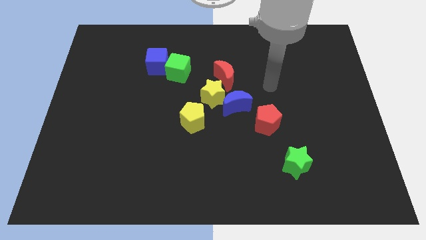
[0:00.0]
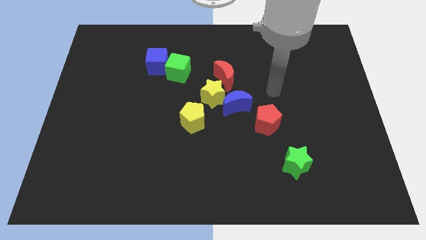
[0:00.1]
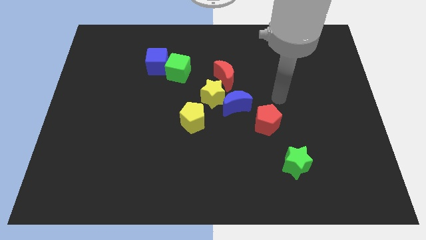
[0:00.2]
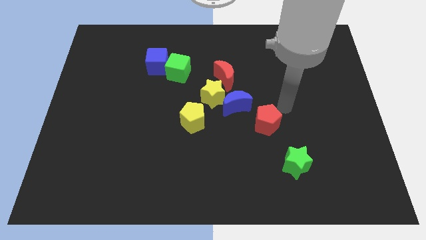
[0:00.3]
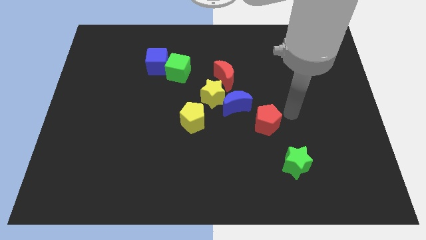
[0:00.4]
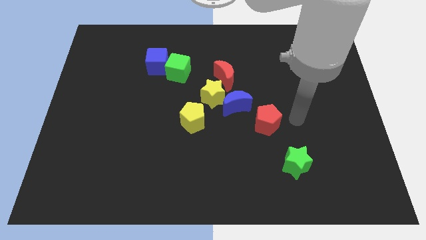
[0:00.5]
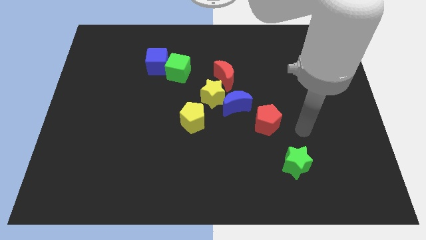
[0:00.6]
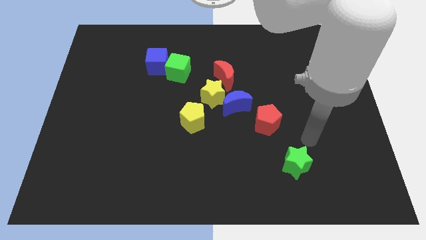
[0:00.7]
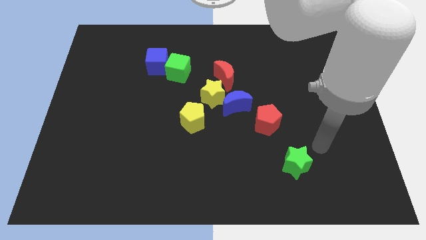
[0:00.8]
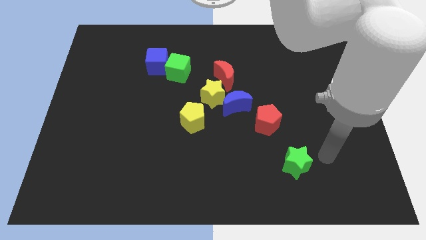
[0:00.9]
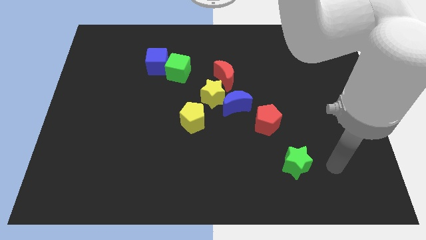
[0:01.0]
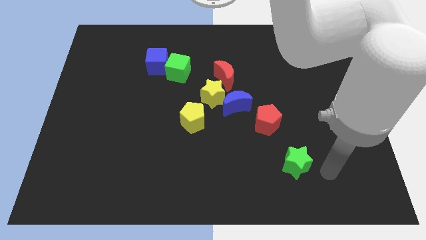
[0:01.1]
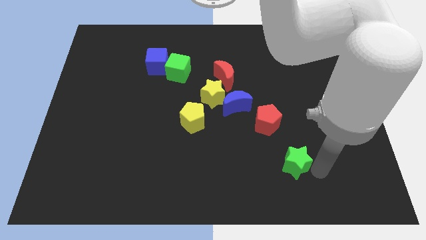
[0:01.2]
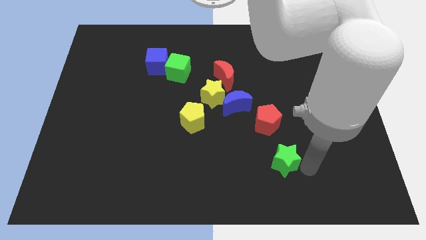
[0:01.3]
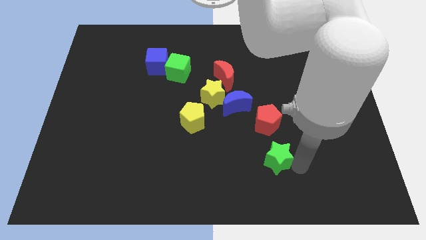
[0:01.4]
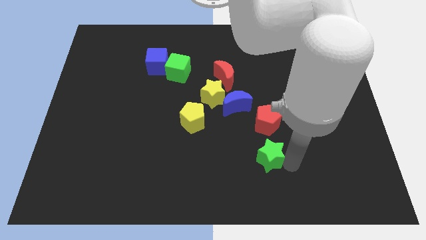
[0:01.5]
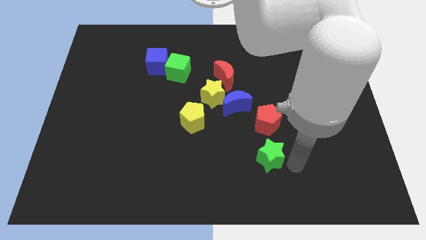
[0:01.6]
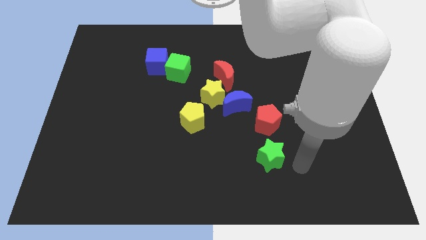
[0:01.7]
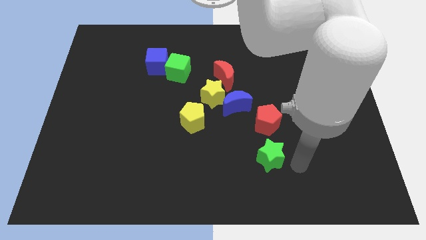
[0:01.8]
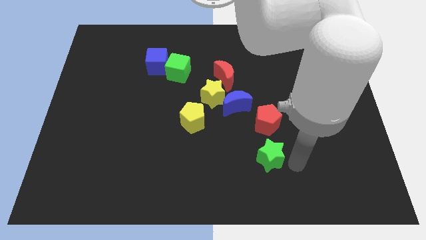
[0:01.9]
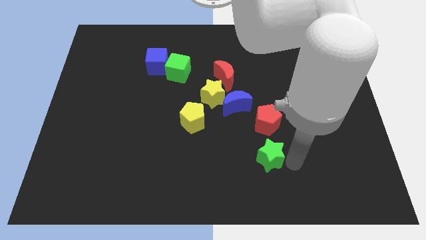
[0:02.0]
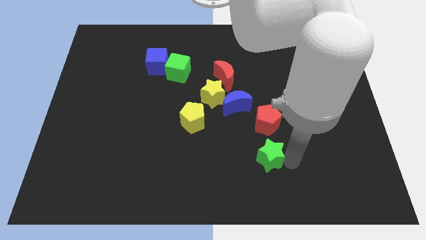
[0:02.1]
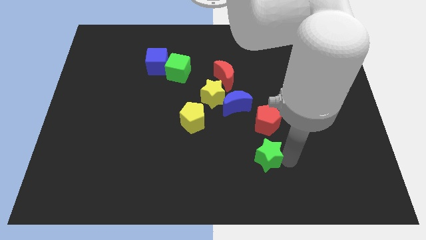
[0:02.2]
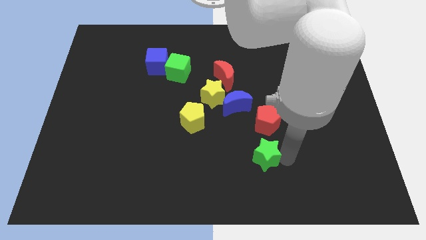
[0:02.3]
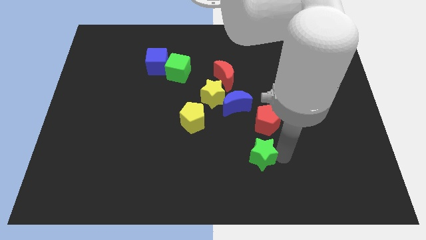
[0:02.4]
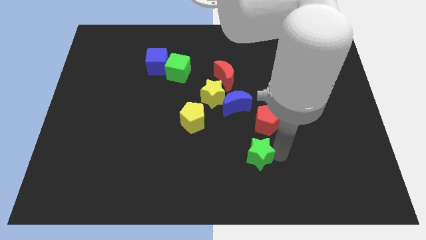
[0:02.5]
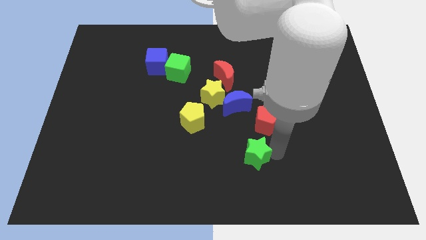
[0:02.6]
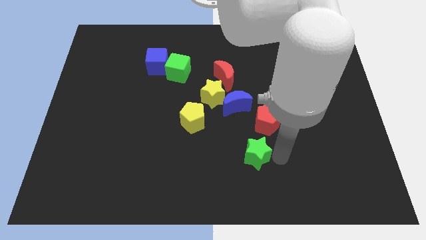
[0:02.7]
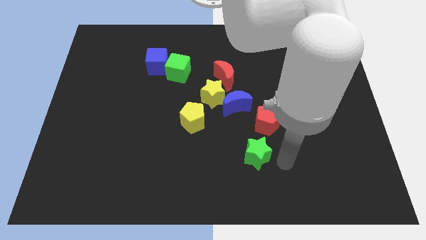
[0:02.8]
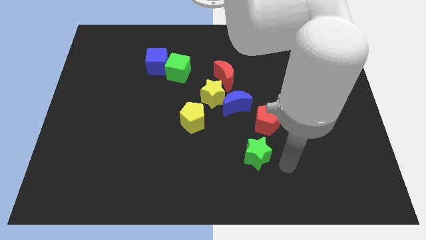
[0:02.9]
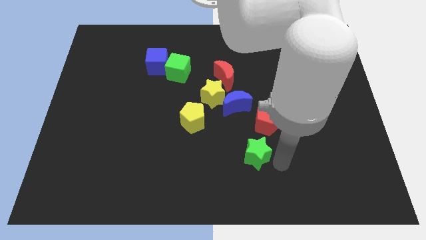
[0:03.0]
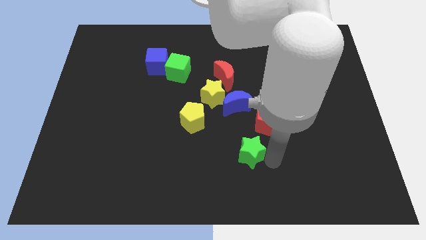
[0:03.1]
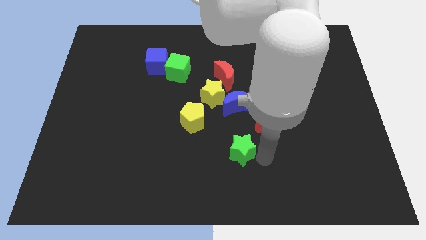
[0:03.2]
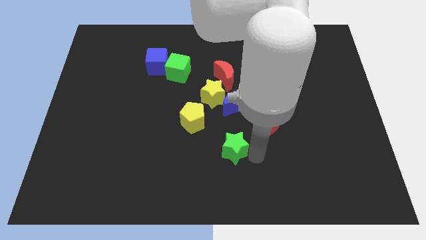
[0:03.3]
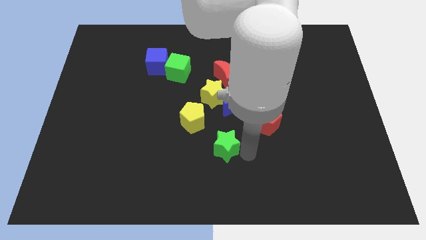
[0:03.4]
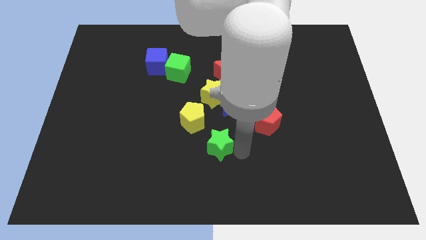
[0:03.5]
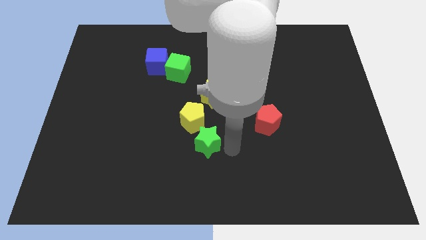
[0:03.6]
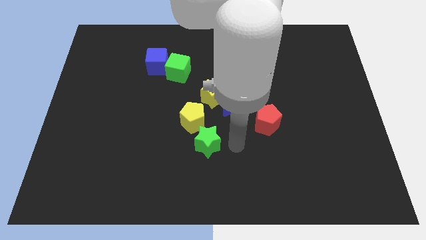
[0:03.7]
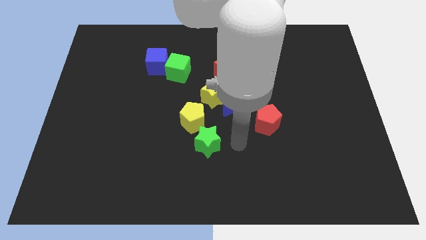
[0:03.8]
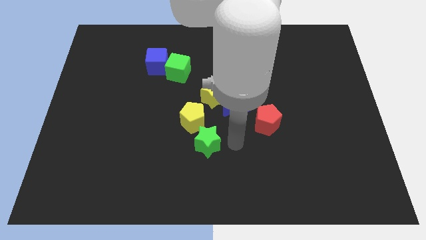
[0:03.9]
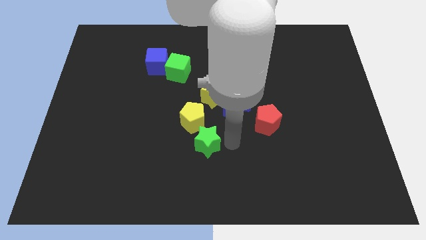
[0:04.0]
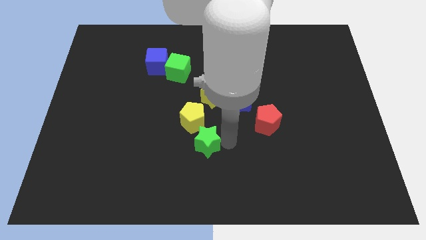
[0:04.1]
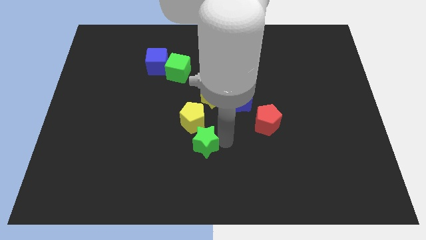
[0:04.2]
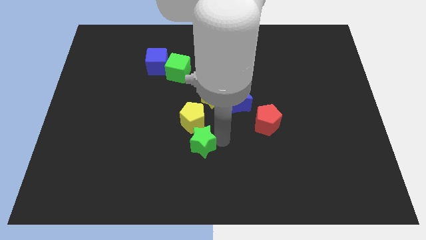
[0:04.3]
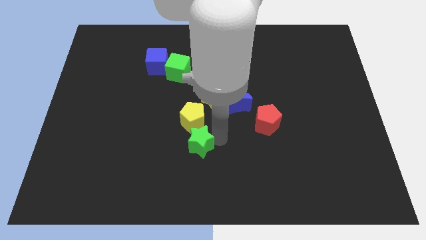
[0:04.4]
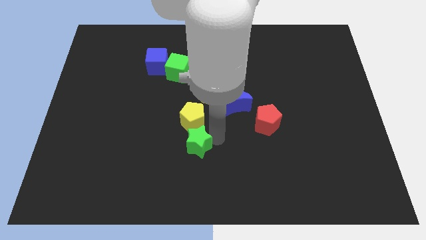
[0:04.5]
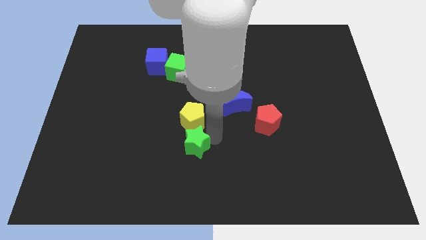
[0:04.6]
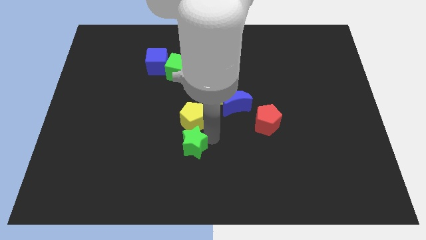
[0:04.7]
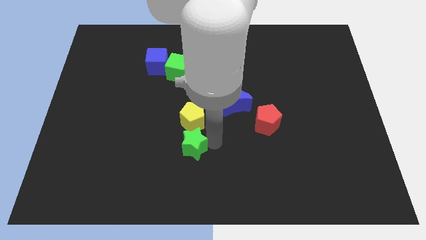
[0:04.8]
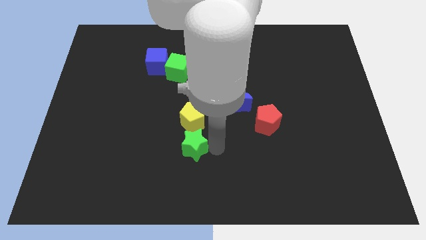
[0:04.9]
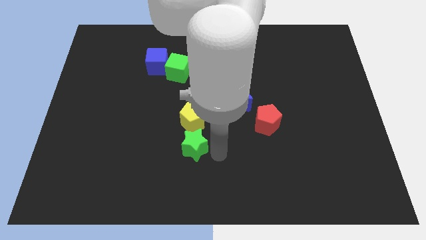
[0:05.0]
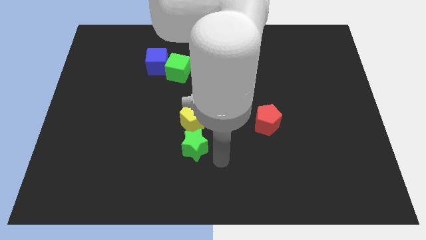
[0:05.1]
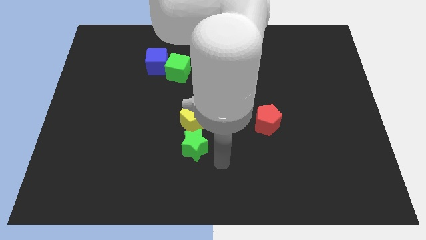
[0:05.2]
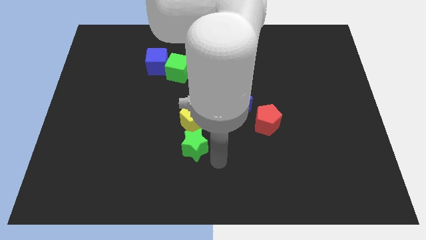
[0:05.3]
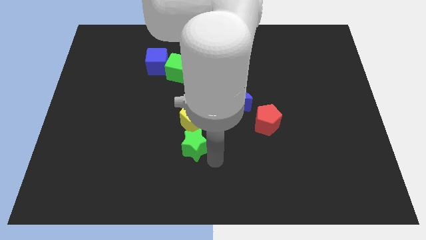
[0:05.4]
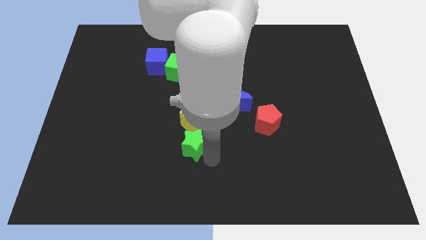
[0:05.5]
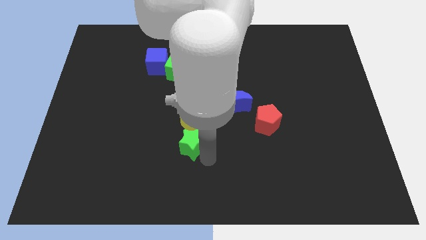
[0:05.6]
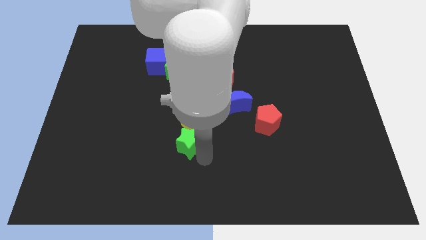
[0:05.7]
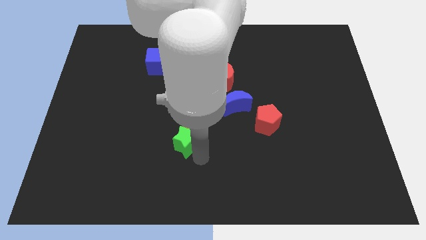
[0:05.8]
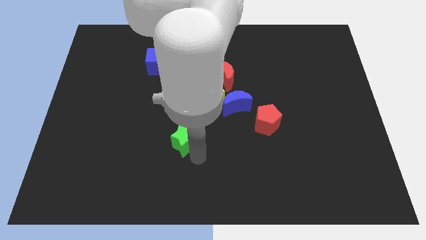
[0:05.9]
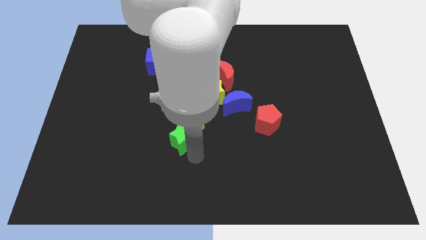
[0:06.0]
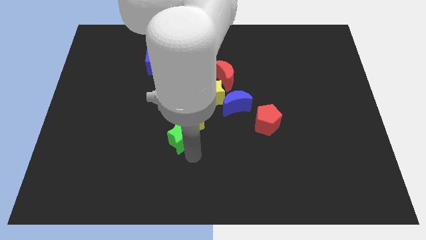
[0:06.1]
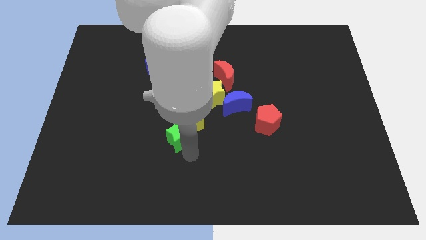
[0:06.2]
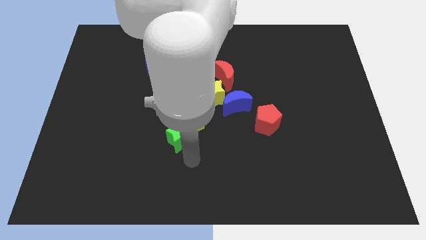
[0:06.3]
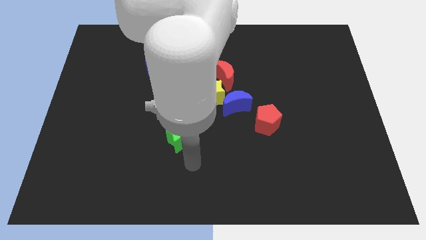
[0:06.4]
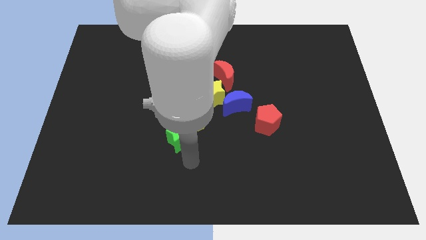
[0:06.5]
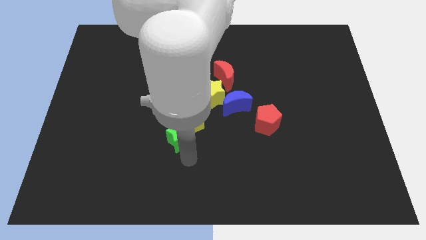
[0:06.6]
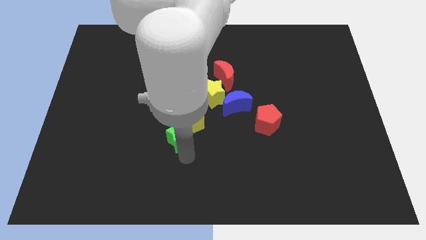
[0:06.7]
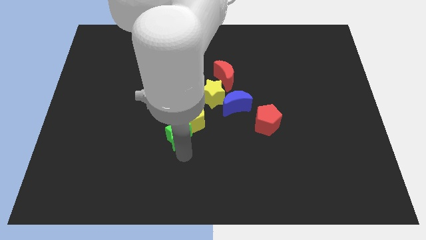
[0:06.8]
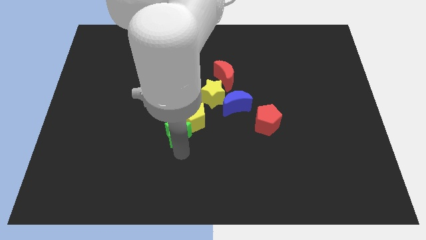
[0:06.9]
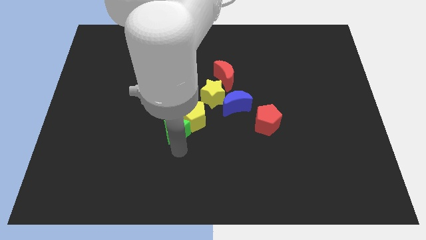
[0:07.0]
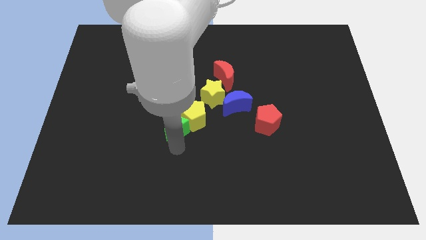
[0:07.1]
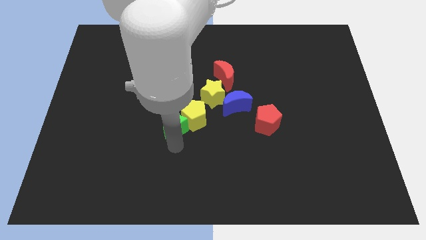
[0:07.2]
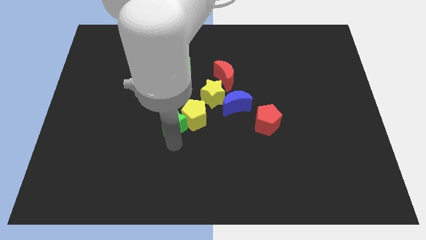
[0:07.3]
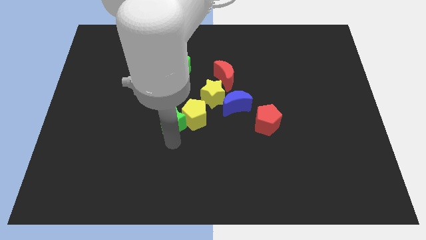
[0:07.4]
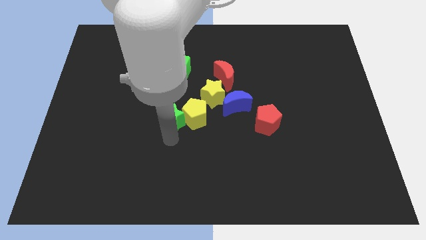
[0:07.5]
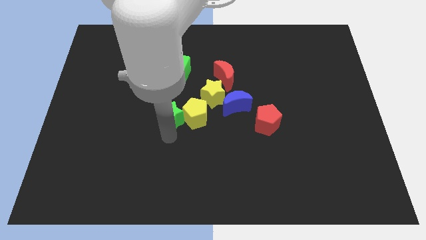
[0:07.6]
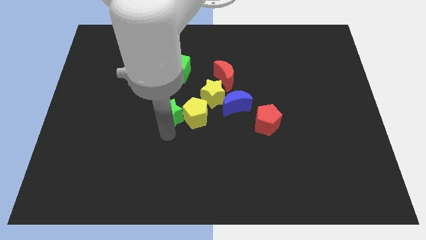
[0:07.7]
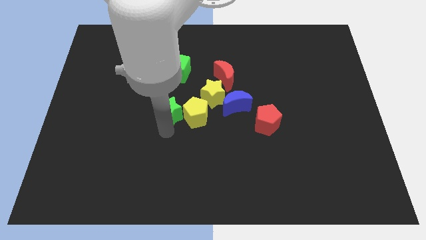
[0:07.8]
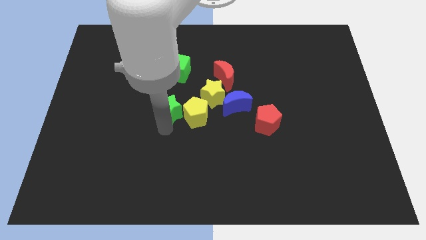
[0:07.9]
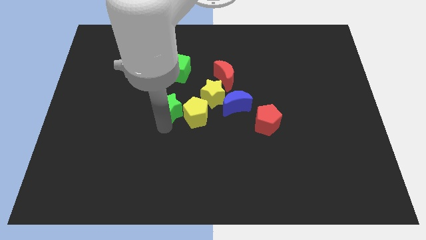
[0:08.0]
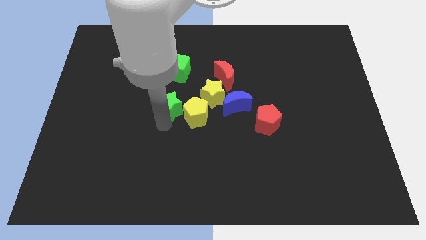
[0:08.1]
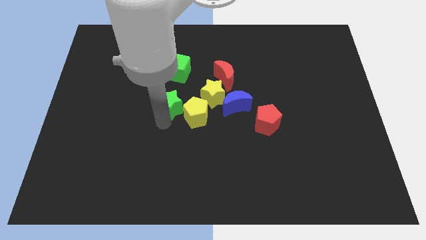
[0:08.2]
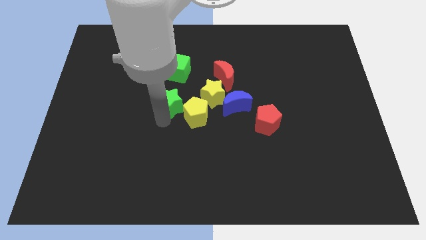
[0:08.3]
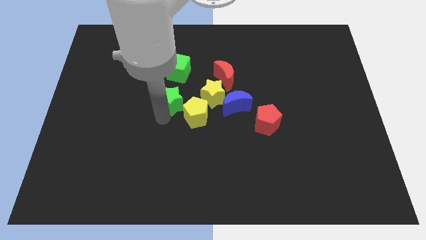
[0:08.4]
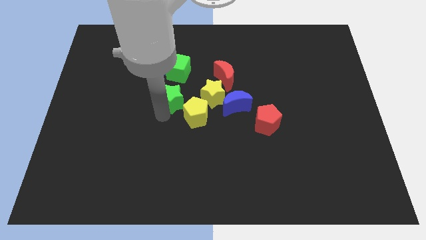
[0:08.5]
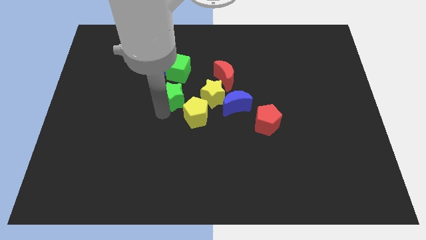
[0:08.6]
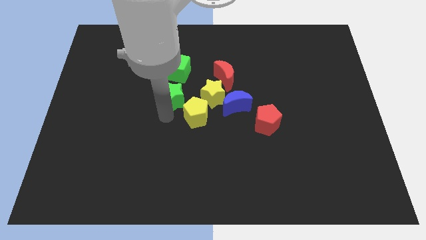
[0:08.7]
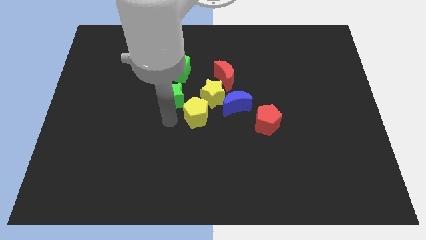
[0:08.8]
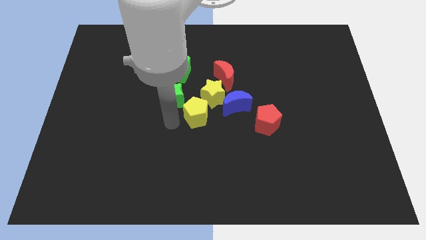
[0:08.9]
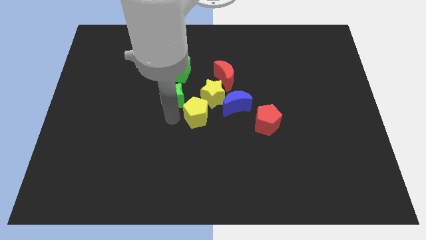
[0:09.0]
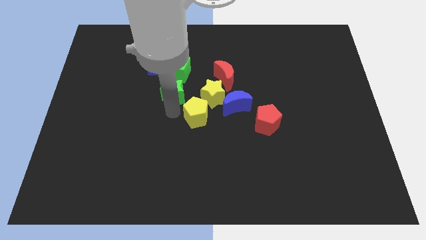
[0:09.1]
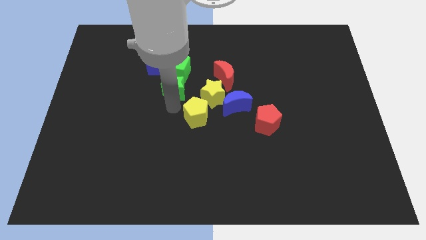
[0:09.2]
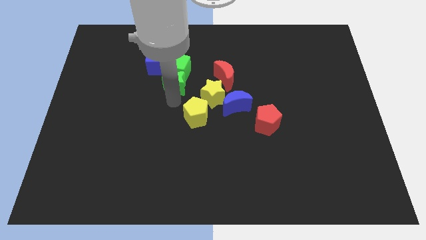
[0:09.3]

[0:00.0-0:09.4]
put the green star close to the green cube
